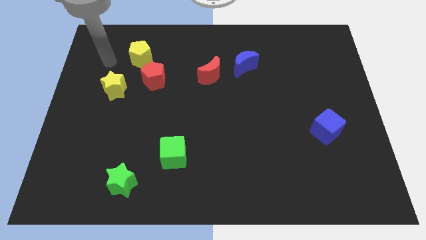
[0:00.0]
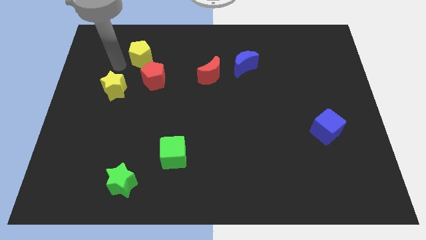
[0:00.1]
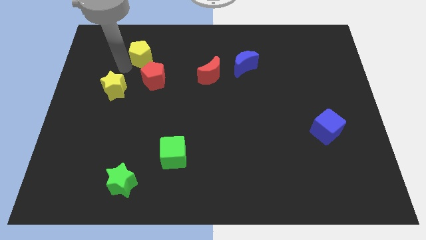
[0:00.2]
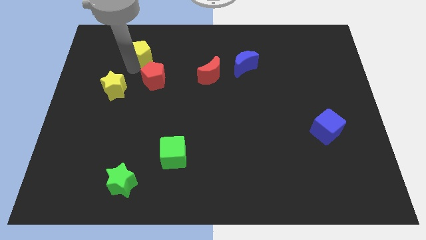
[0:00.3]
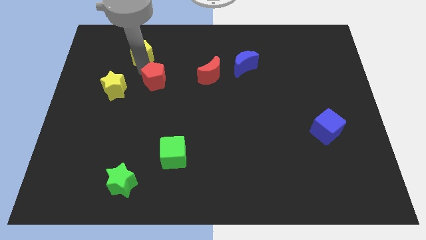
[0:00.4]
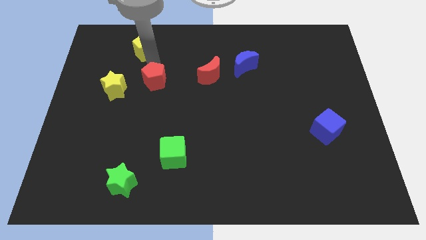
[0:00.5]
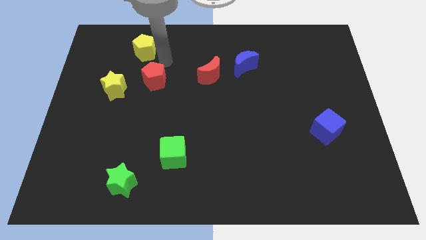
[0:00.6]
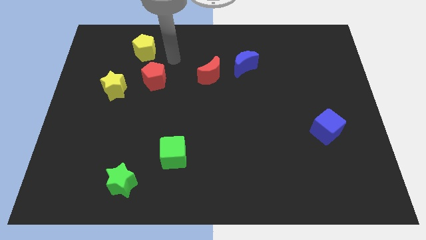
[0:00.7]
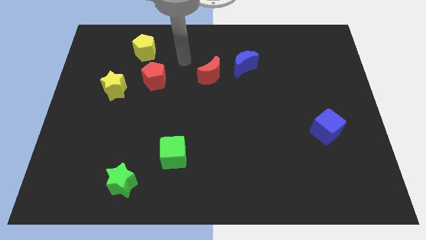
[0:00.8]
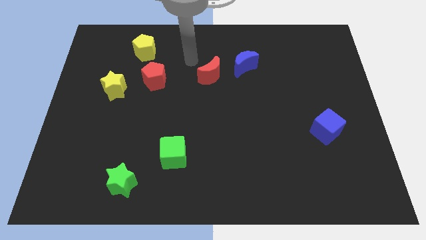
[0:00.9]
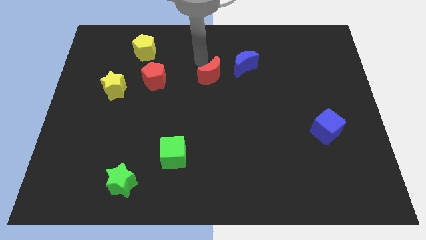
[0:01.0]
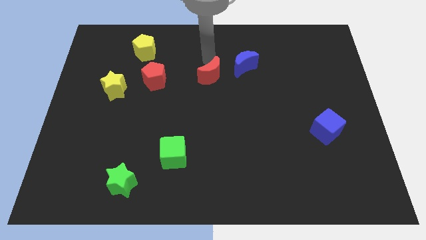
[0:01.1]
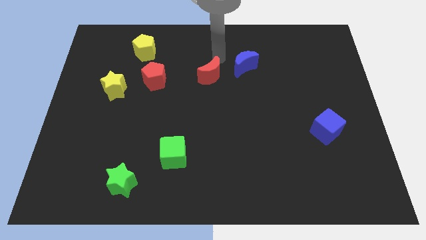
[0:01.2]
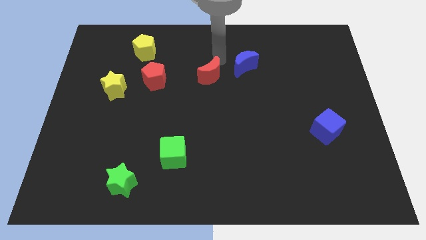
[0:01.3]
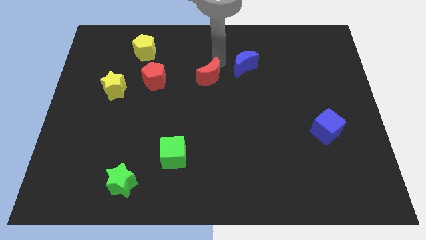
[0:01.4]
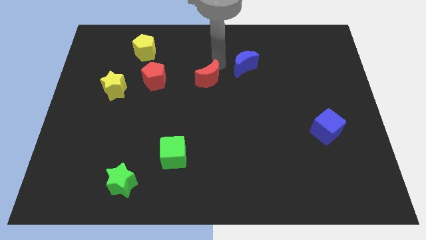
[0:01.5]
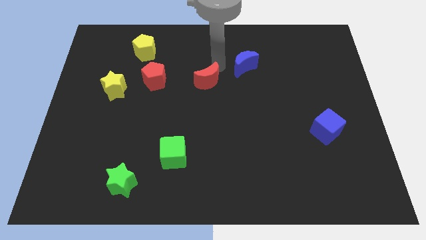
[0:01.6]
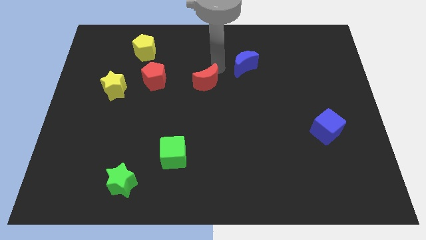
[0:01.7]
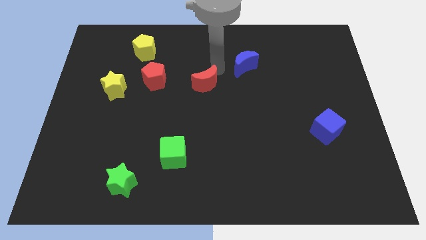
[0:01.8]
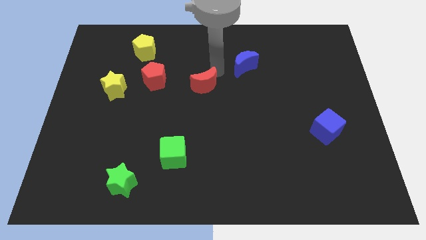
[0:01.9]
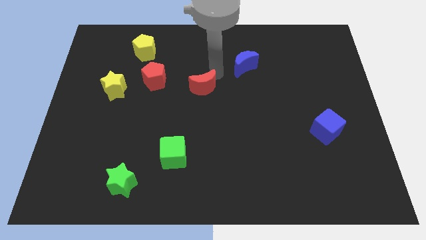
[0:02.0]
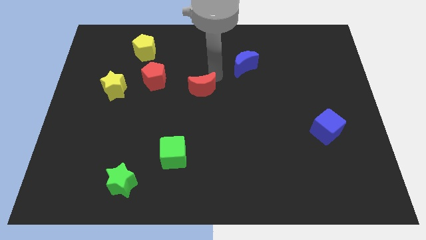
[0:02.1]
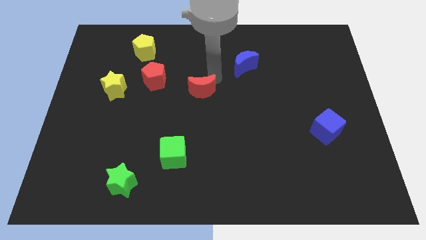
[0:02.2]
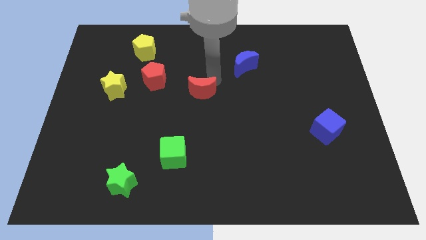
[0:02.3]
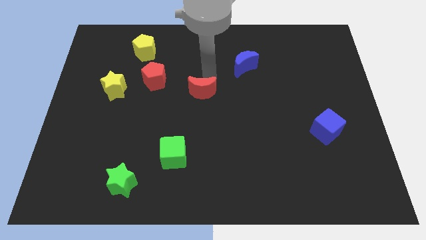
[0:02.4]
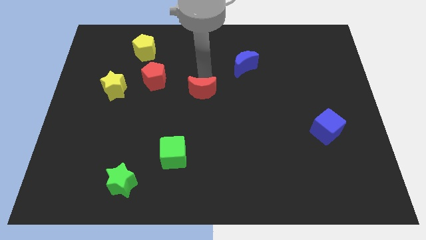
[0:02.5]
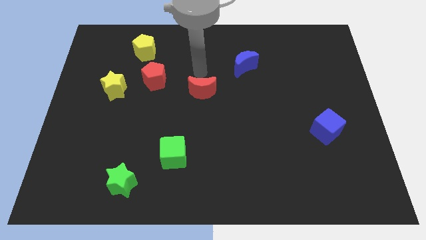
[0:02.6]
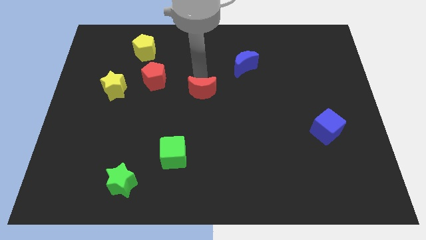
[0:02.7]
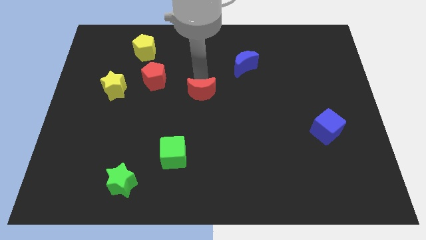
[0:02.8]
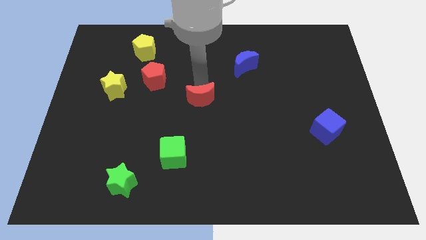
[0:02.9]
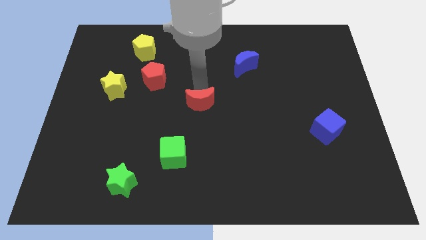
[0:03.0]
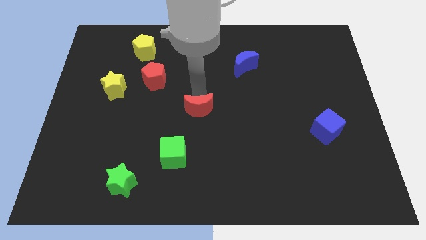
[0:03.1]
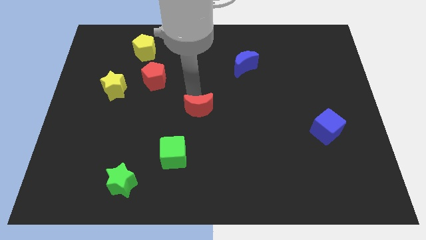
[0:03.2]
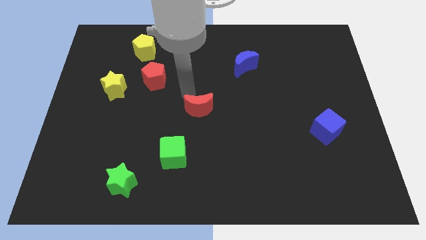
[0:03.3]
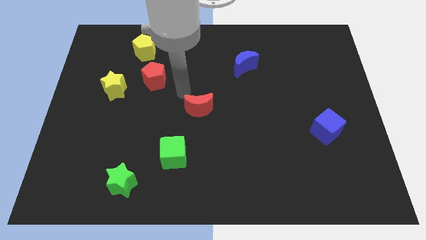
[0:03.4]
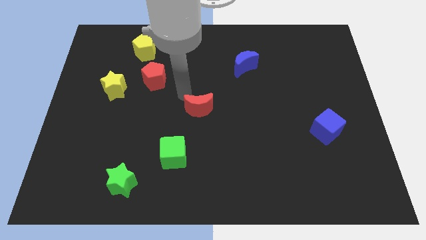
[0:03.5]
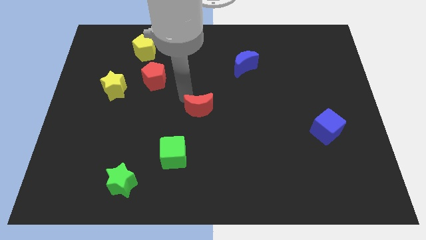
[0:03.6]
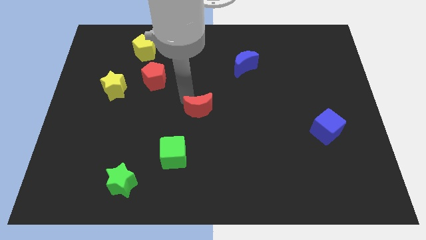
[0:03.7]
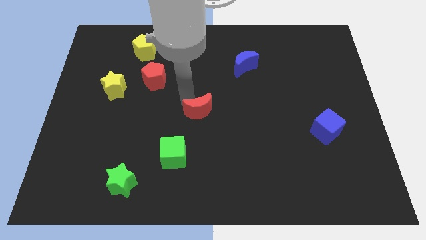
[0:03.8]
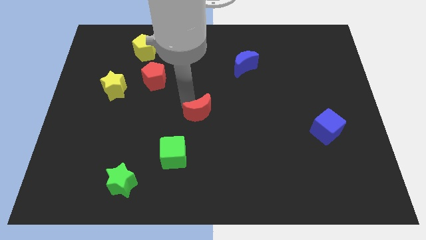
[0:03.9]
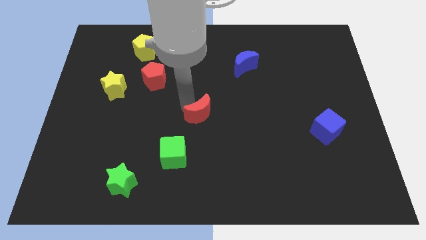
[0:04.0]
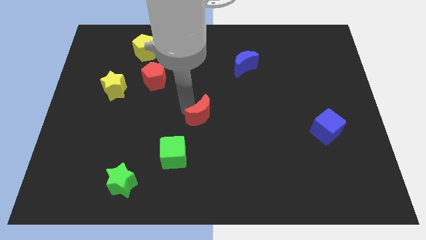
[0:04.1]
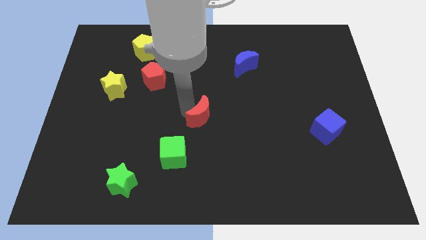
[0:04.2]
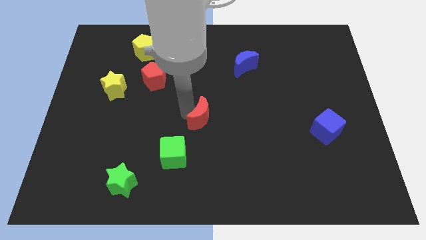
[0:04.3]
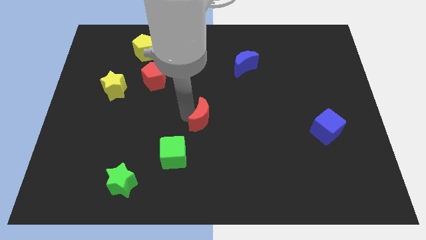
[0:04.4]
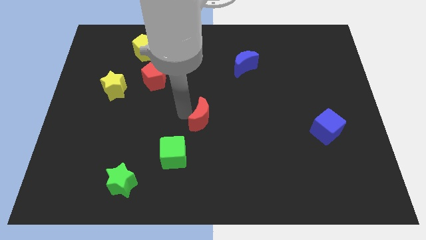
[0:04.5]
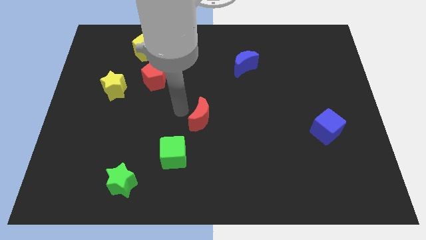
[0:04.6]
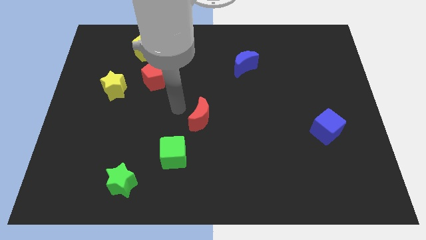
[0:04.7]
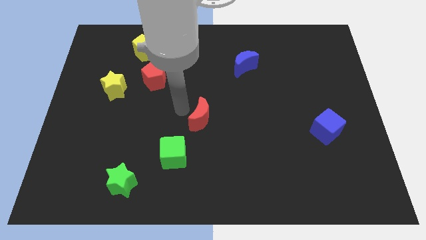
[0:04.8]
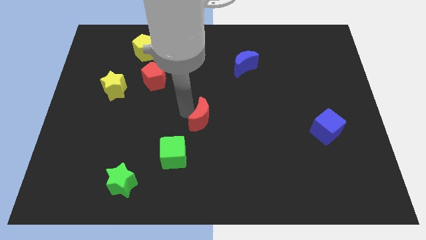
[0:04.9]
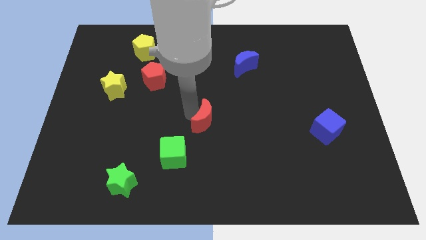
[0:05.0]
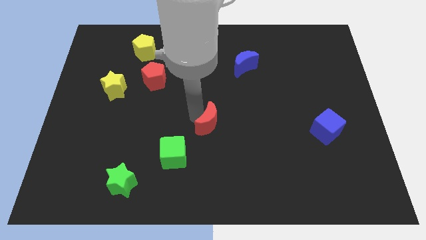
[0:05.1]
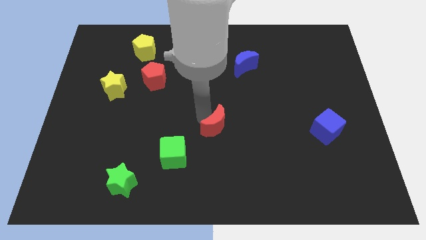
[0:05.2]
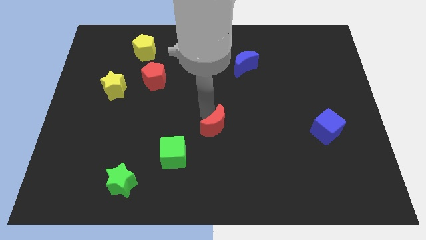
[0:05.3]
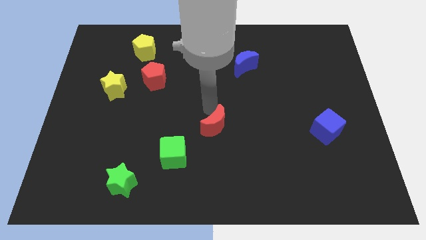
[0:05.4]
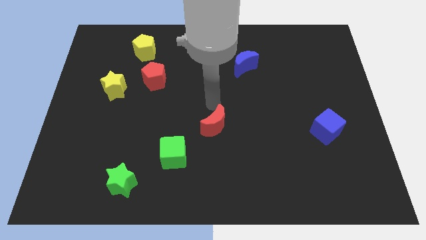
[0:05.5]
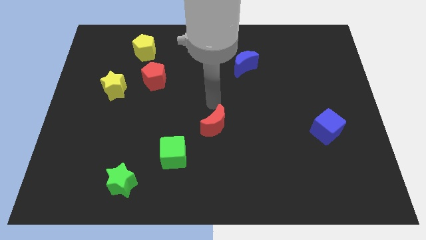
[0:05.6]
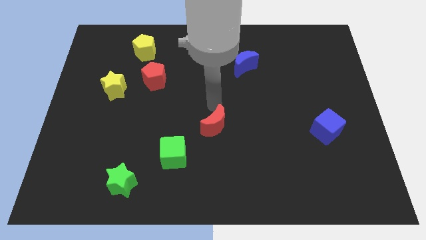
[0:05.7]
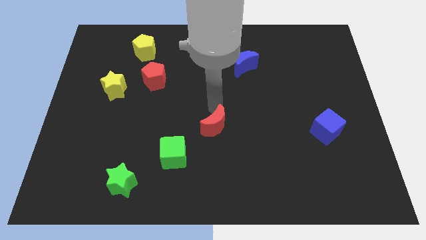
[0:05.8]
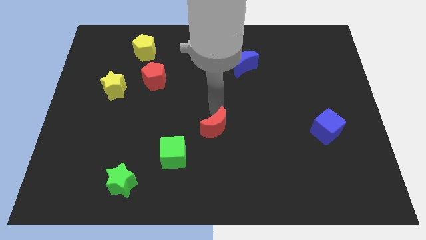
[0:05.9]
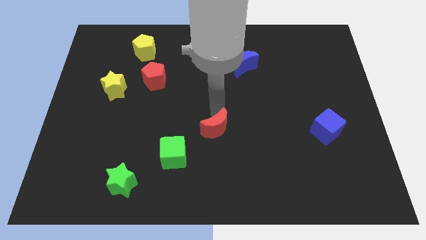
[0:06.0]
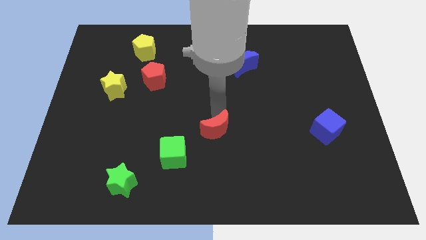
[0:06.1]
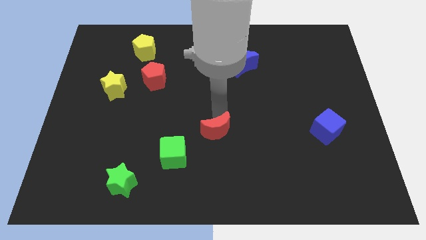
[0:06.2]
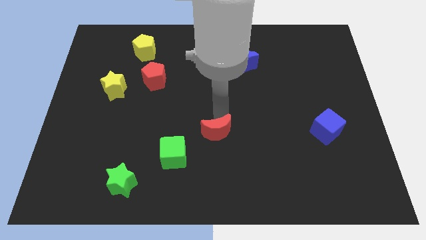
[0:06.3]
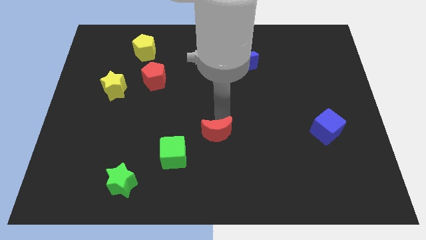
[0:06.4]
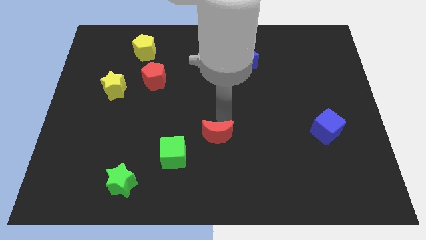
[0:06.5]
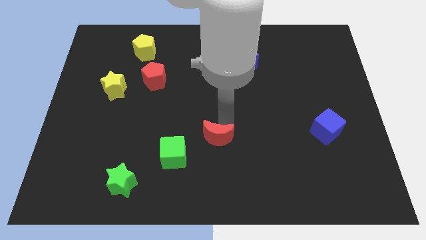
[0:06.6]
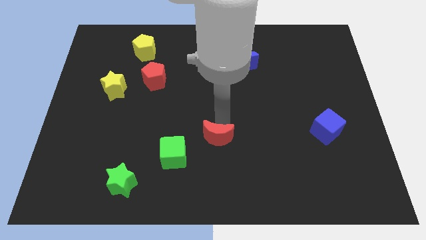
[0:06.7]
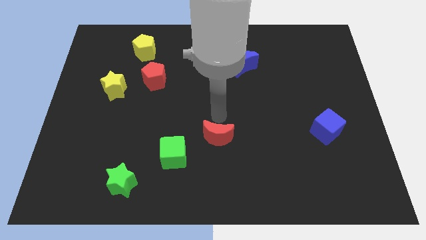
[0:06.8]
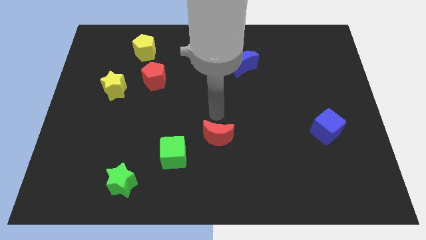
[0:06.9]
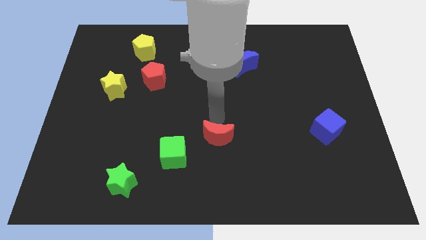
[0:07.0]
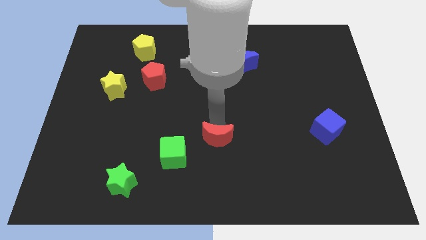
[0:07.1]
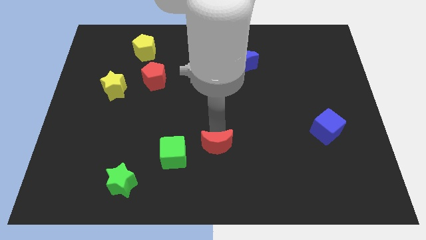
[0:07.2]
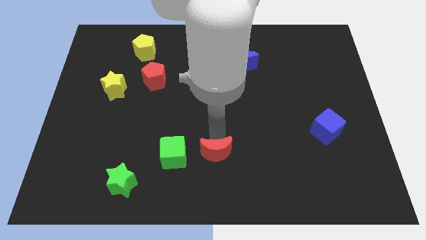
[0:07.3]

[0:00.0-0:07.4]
put the red moon to the bottom
